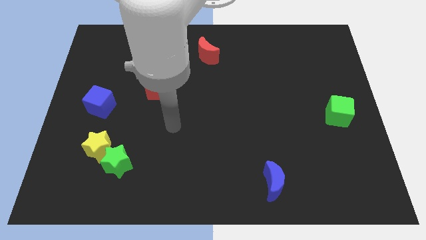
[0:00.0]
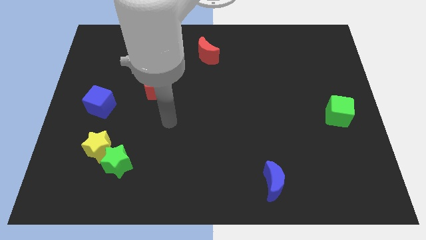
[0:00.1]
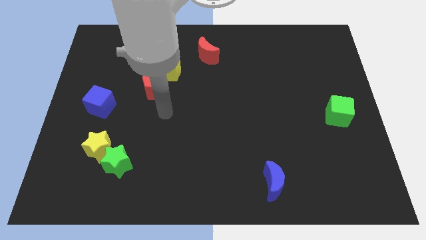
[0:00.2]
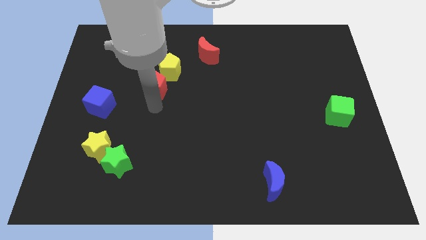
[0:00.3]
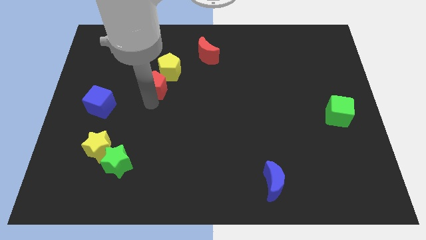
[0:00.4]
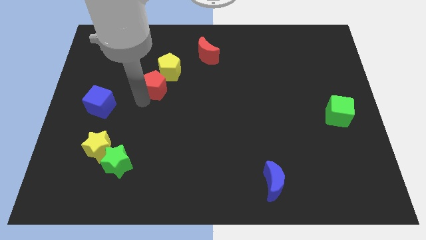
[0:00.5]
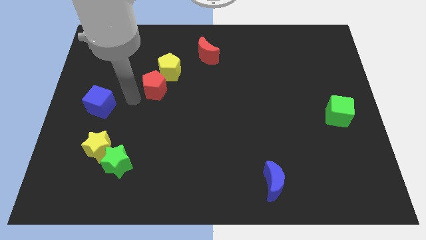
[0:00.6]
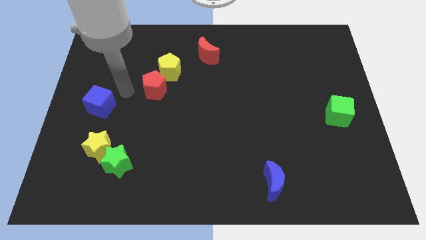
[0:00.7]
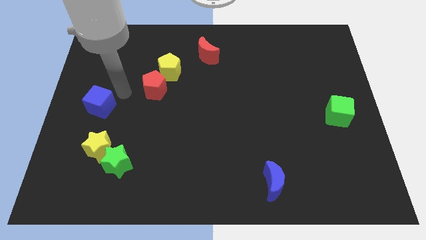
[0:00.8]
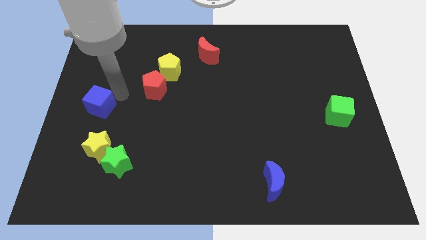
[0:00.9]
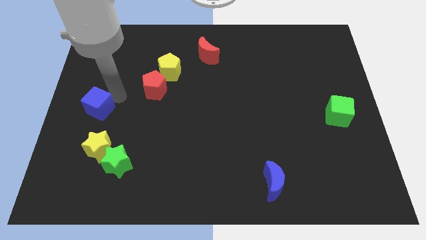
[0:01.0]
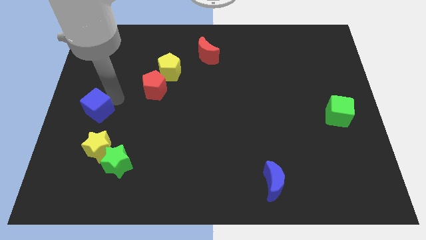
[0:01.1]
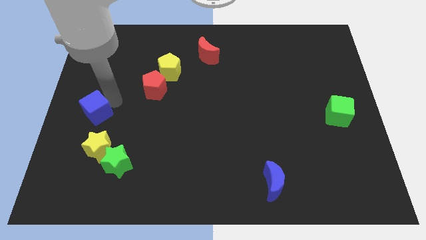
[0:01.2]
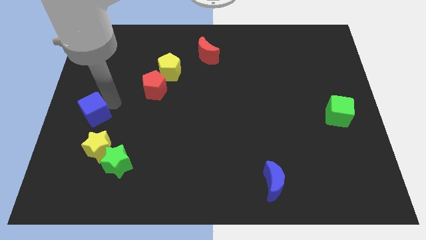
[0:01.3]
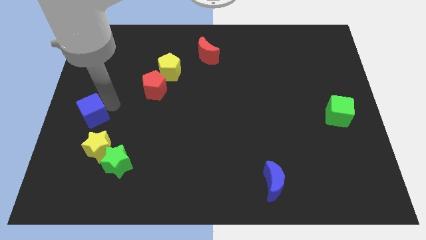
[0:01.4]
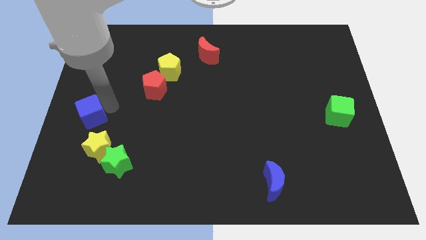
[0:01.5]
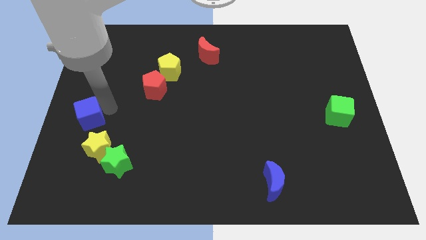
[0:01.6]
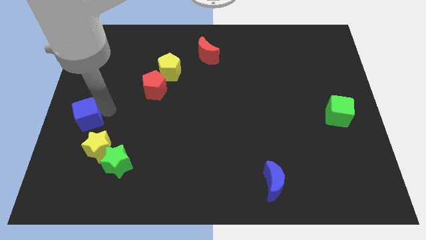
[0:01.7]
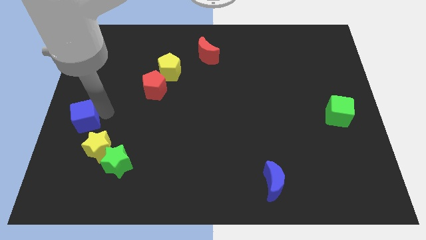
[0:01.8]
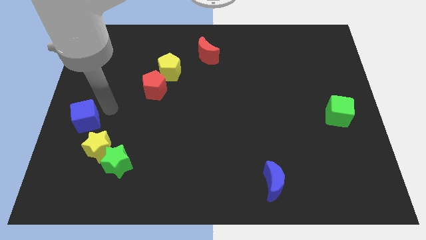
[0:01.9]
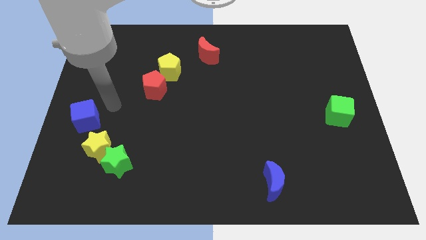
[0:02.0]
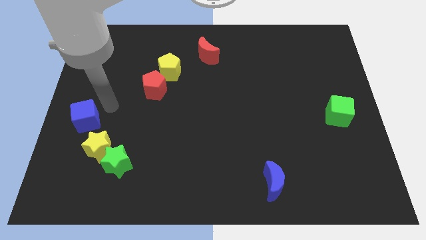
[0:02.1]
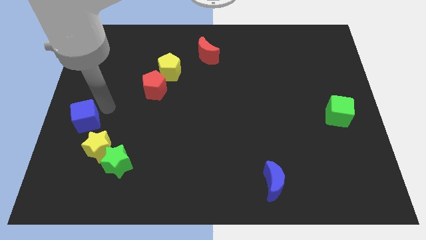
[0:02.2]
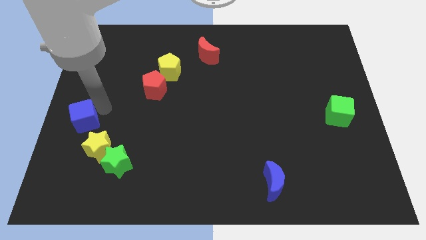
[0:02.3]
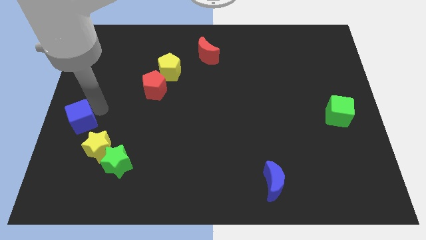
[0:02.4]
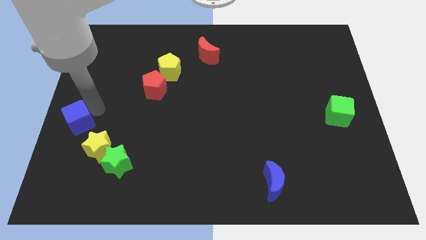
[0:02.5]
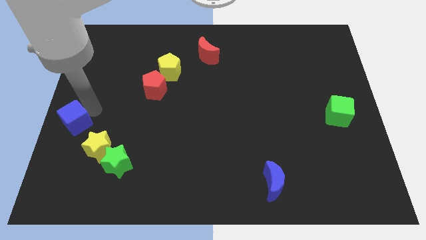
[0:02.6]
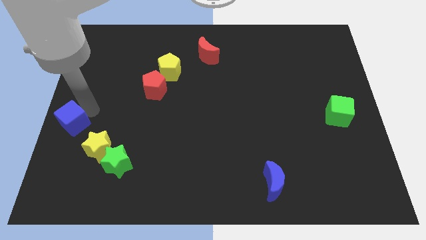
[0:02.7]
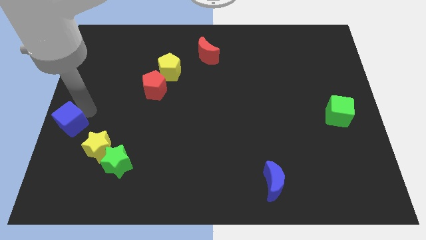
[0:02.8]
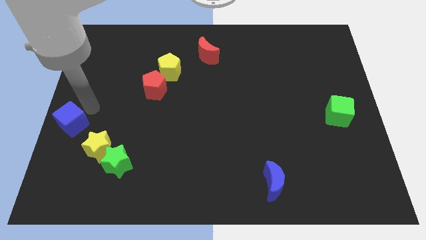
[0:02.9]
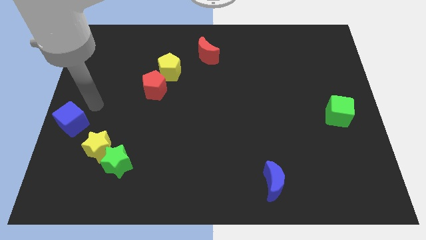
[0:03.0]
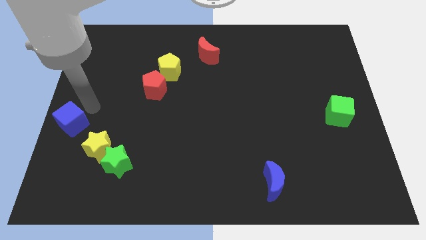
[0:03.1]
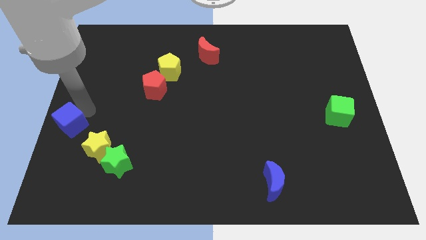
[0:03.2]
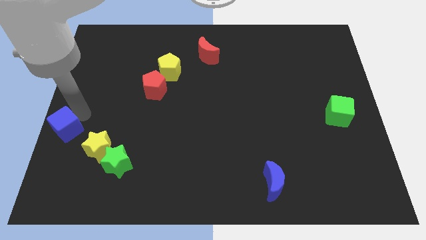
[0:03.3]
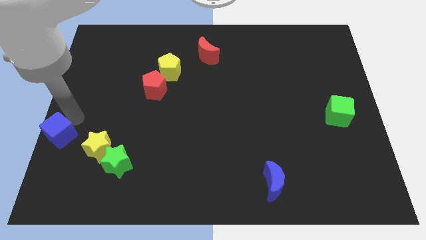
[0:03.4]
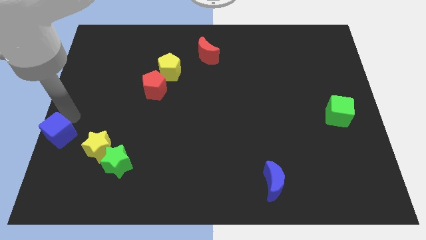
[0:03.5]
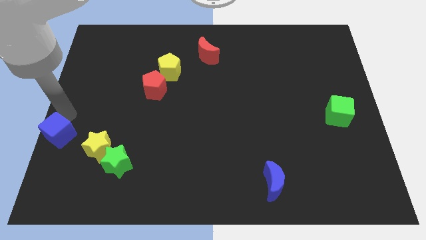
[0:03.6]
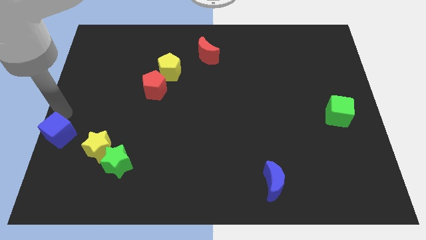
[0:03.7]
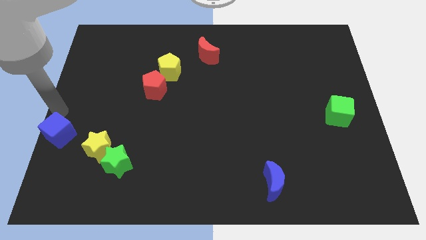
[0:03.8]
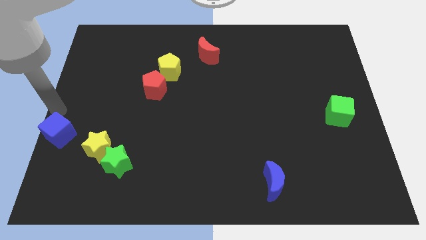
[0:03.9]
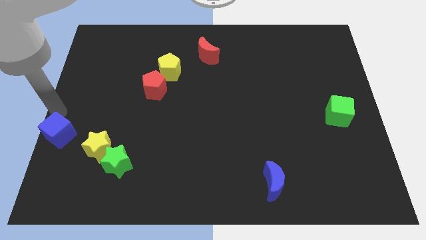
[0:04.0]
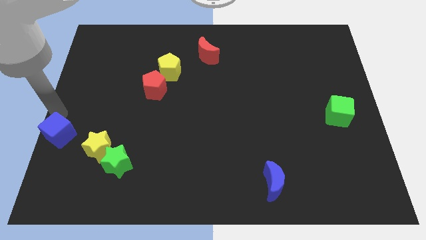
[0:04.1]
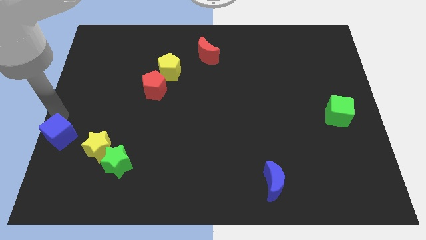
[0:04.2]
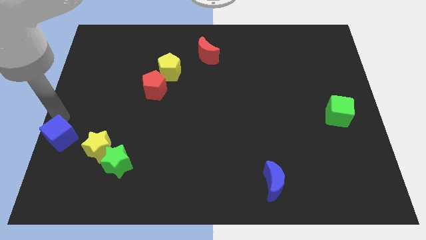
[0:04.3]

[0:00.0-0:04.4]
slightly move the blue cube downwards

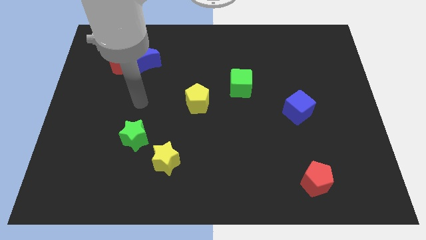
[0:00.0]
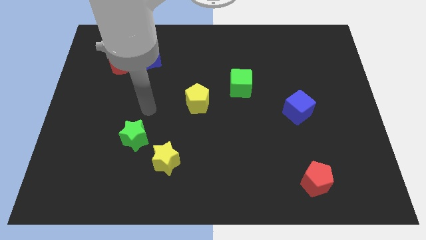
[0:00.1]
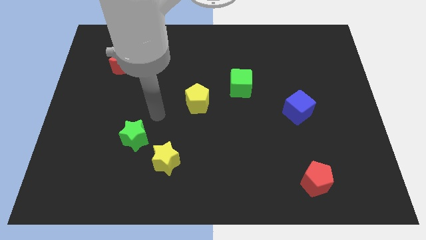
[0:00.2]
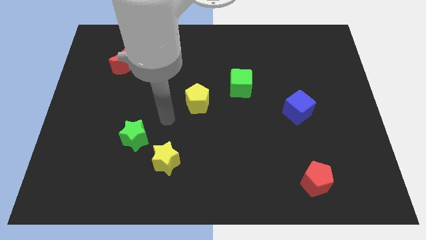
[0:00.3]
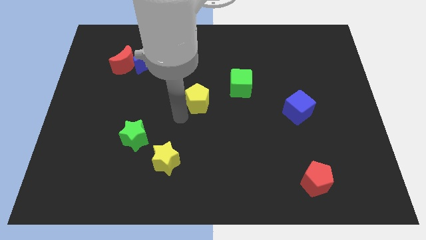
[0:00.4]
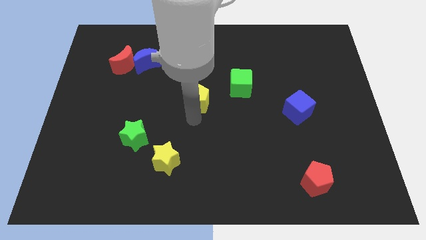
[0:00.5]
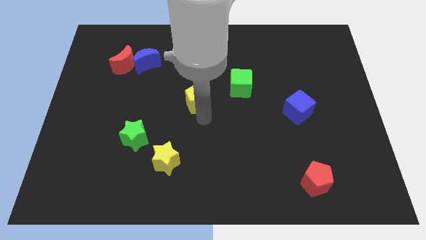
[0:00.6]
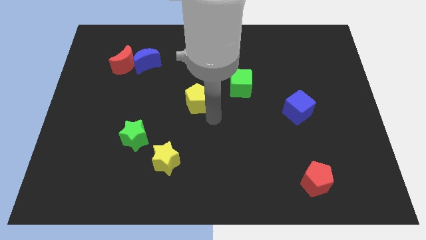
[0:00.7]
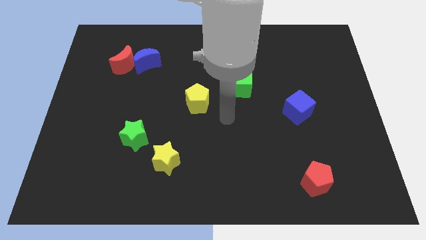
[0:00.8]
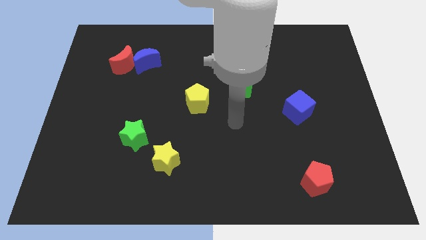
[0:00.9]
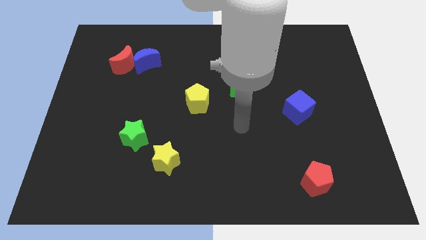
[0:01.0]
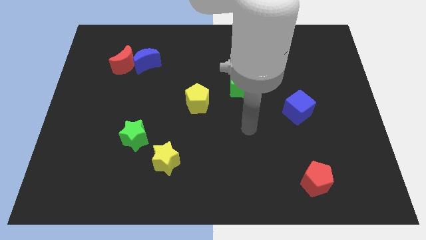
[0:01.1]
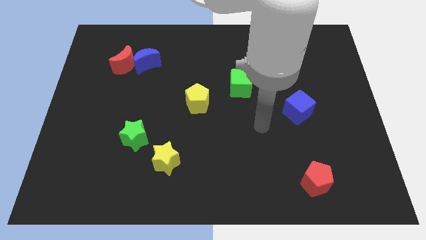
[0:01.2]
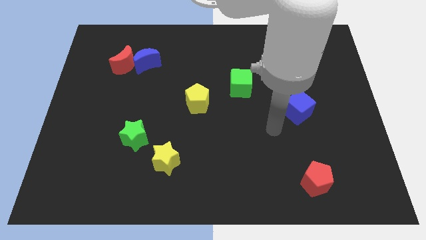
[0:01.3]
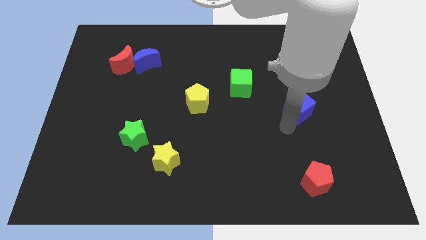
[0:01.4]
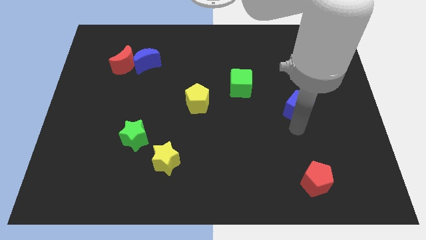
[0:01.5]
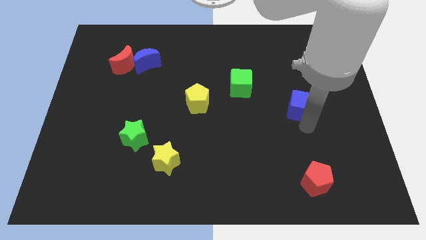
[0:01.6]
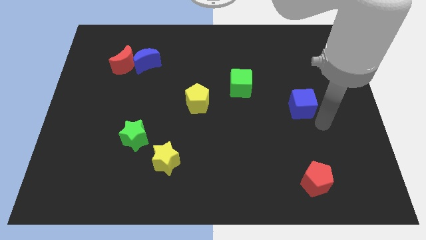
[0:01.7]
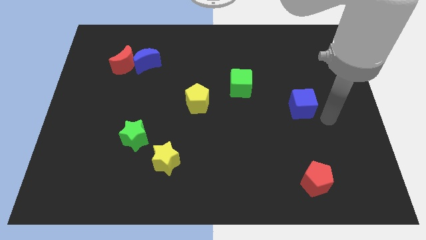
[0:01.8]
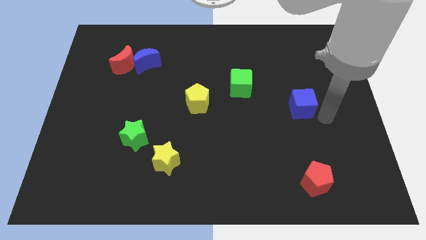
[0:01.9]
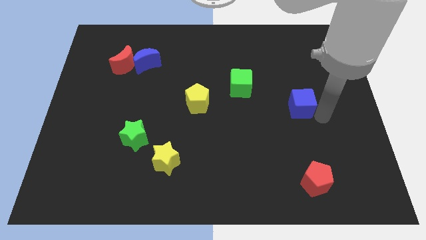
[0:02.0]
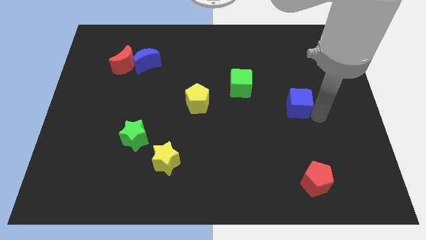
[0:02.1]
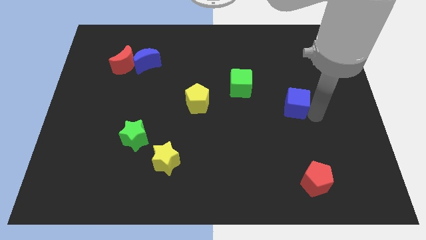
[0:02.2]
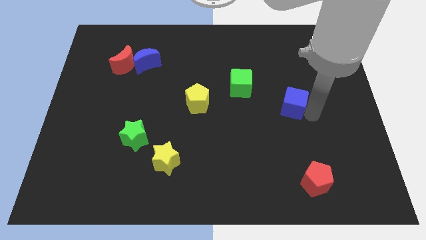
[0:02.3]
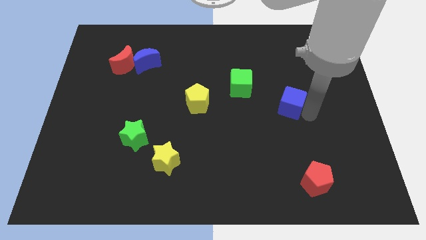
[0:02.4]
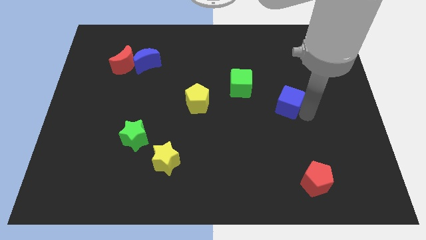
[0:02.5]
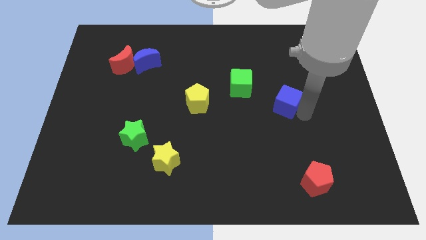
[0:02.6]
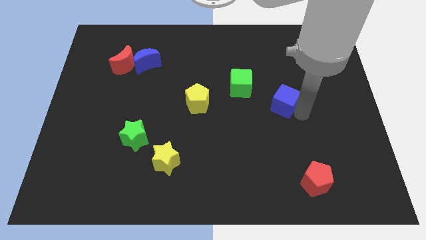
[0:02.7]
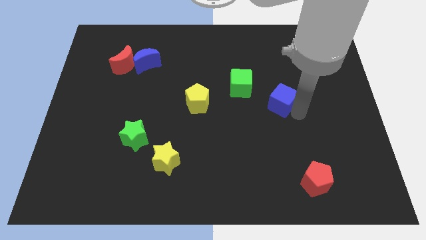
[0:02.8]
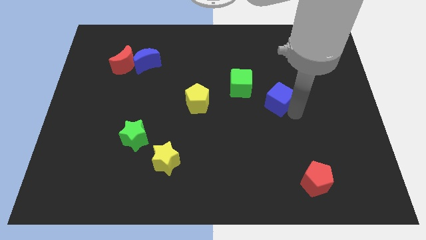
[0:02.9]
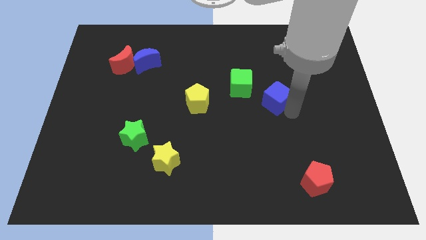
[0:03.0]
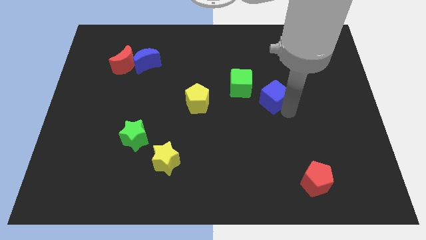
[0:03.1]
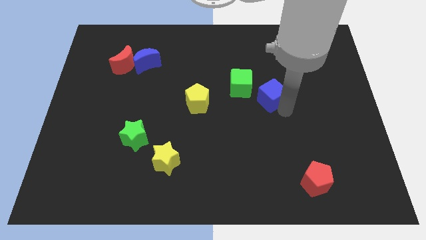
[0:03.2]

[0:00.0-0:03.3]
push the blue cube somewhat up and left
